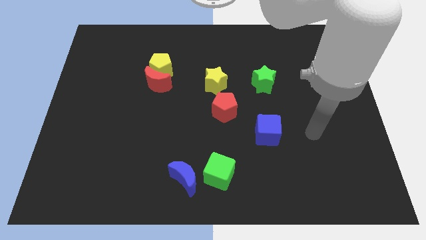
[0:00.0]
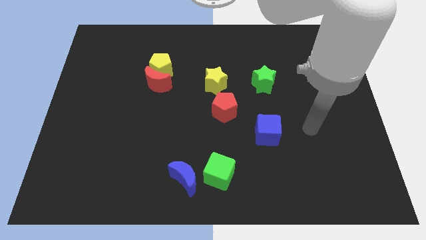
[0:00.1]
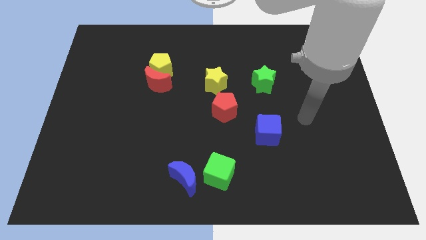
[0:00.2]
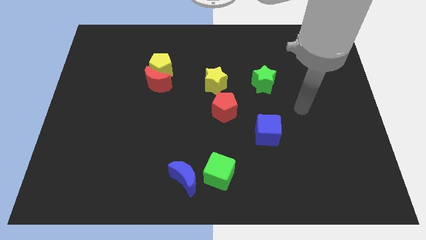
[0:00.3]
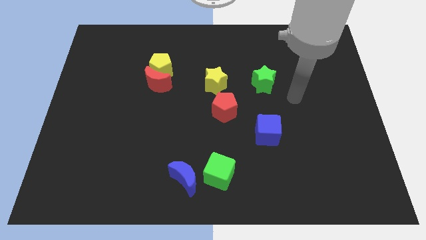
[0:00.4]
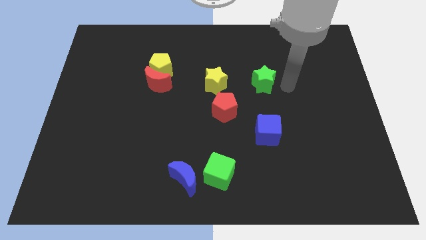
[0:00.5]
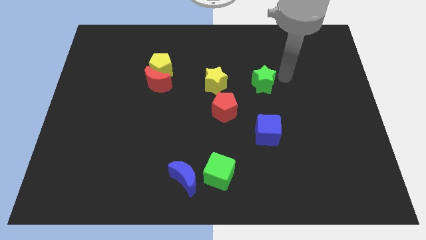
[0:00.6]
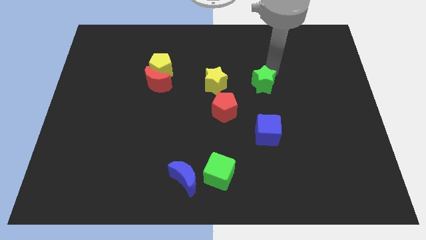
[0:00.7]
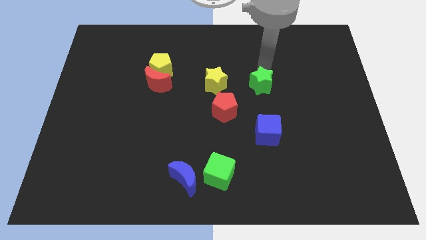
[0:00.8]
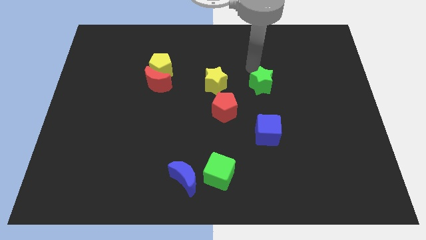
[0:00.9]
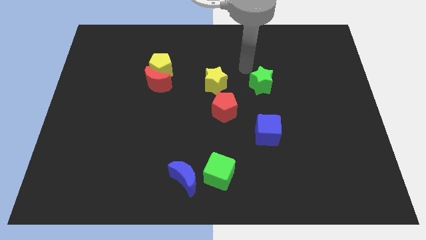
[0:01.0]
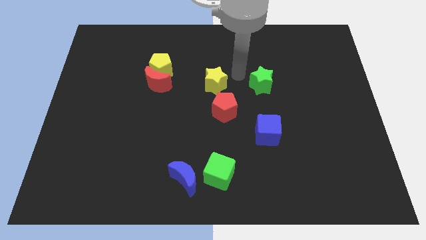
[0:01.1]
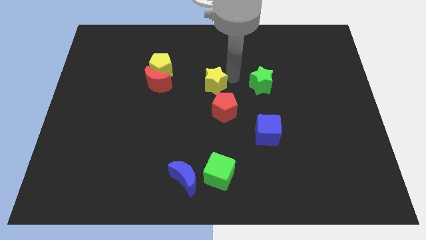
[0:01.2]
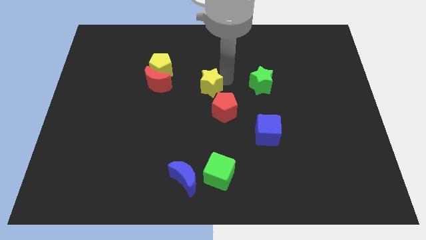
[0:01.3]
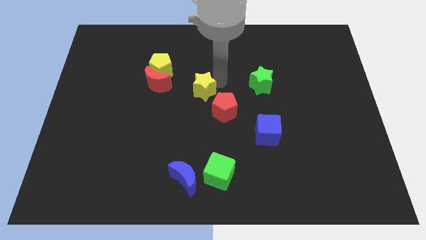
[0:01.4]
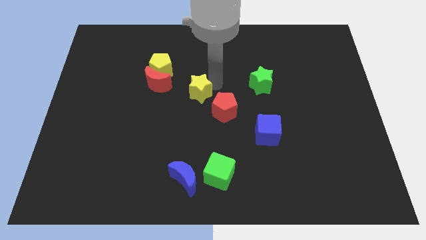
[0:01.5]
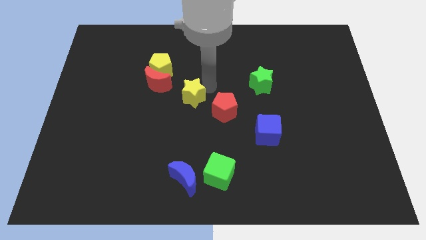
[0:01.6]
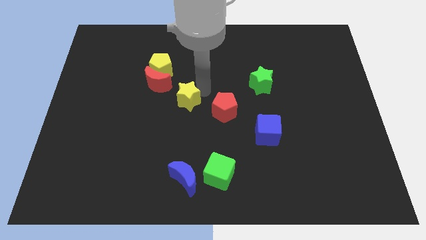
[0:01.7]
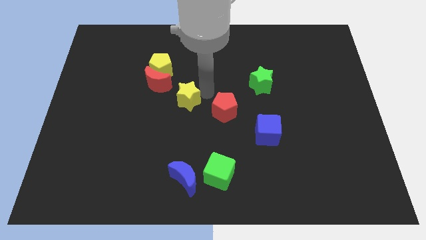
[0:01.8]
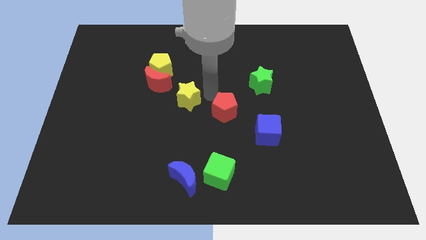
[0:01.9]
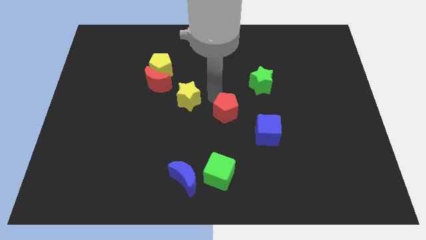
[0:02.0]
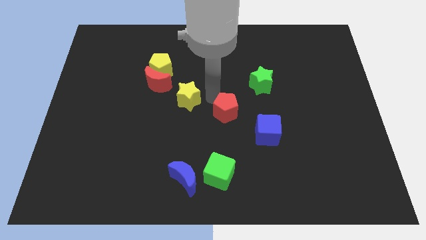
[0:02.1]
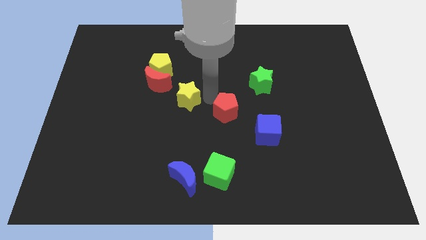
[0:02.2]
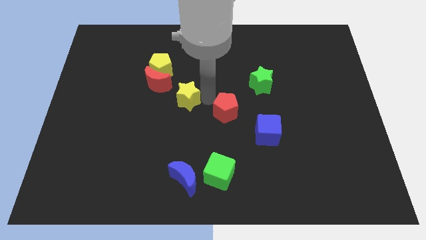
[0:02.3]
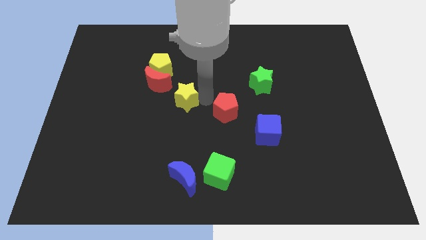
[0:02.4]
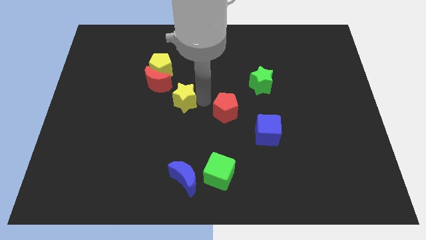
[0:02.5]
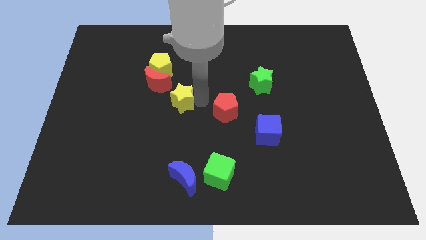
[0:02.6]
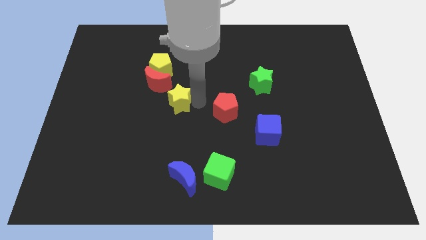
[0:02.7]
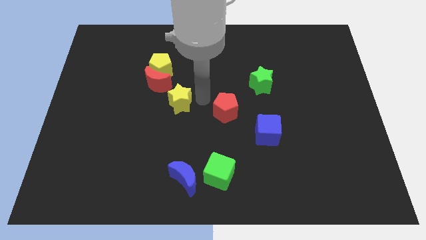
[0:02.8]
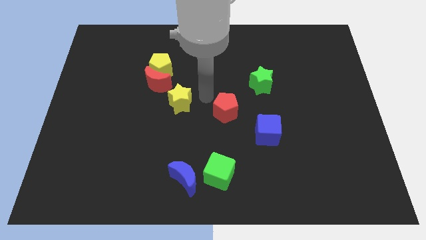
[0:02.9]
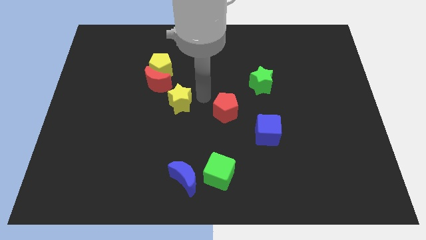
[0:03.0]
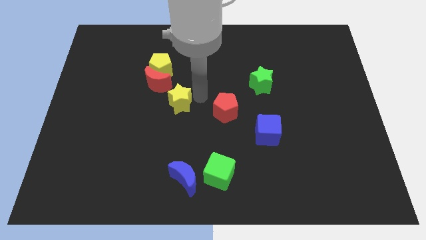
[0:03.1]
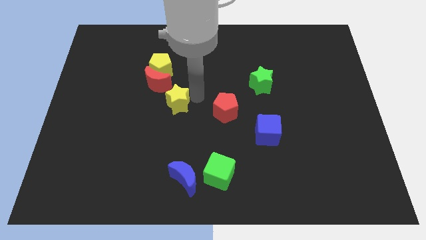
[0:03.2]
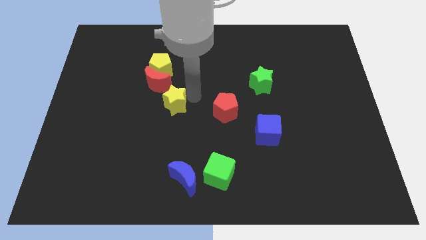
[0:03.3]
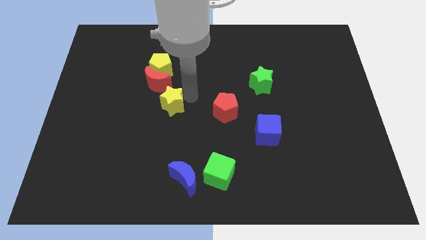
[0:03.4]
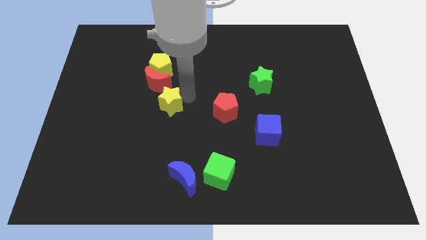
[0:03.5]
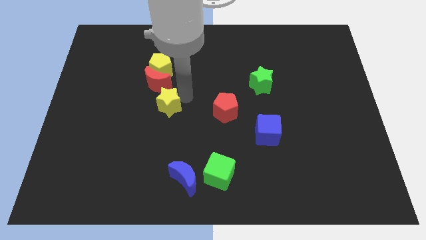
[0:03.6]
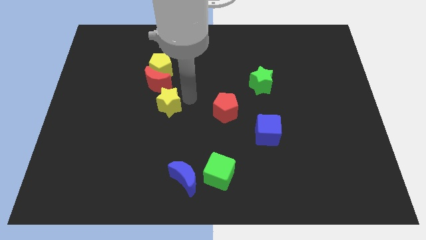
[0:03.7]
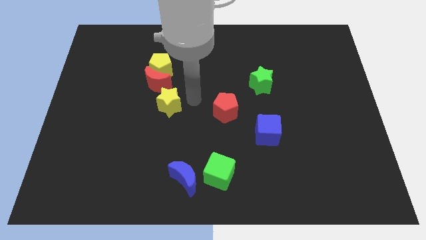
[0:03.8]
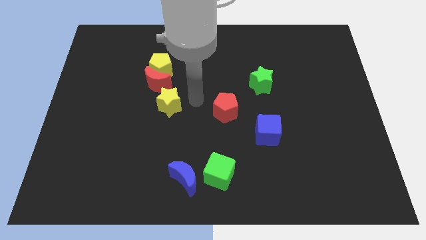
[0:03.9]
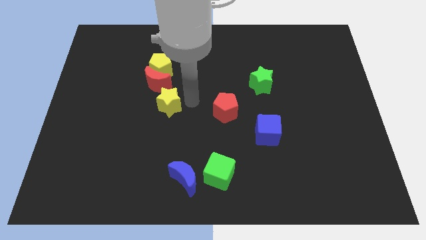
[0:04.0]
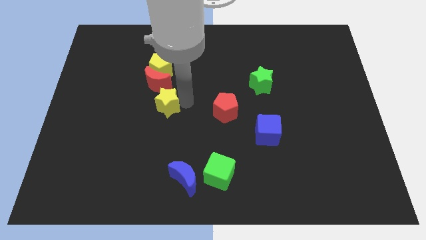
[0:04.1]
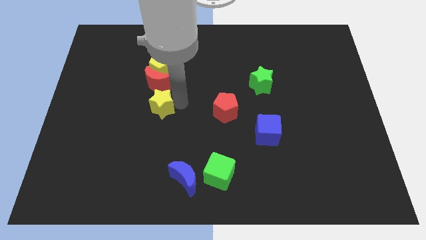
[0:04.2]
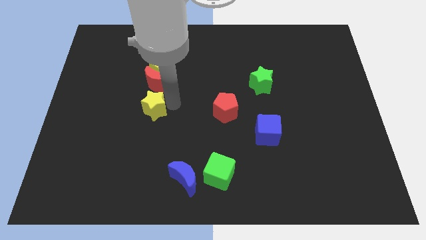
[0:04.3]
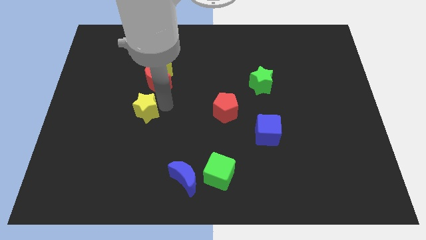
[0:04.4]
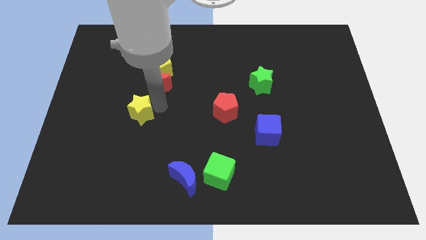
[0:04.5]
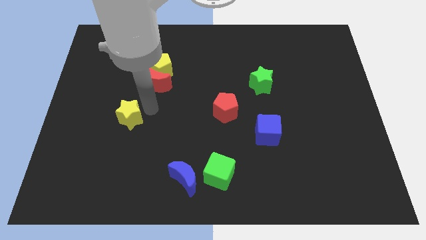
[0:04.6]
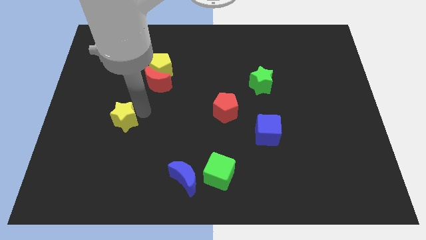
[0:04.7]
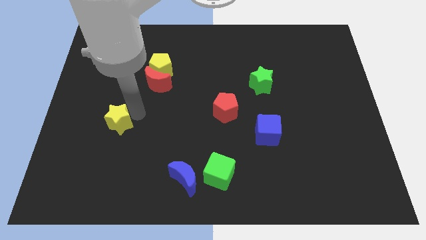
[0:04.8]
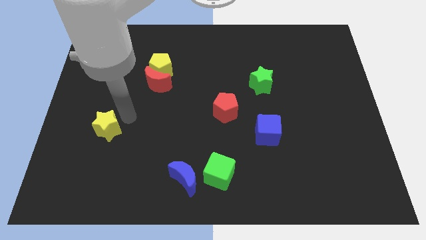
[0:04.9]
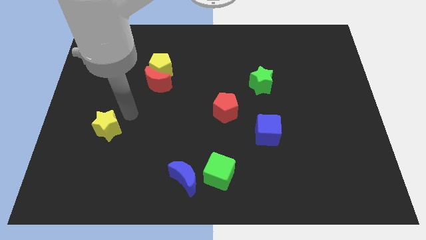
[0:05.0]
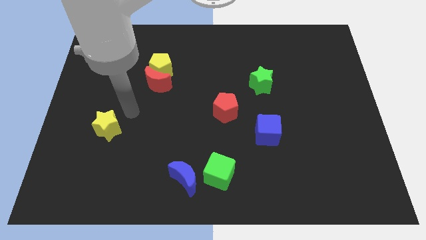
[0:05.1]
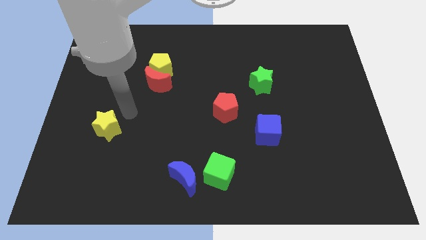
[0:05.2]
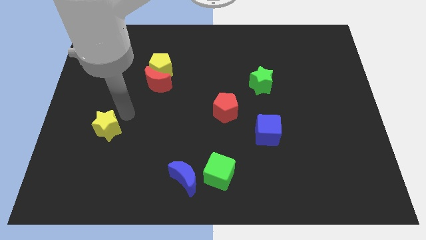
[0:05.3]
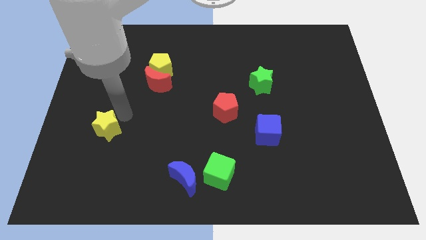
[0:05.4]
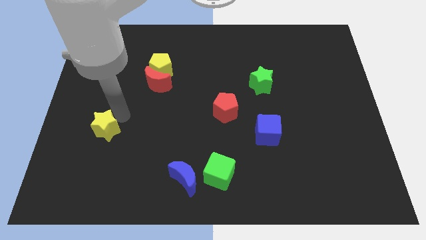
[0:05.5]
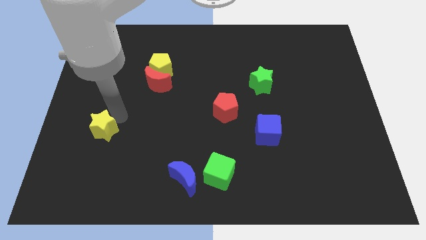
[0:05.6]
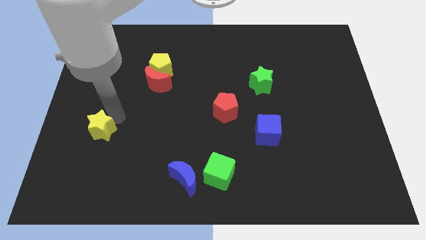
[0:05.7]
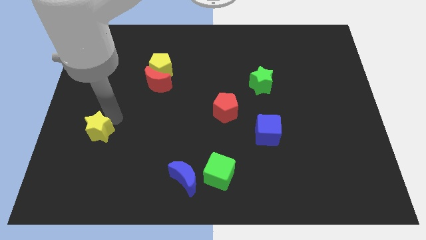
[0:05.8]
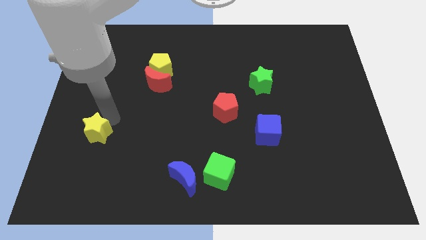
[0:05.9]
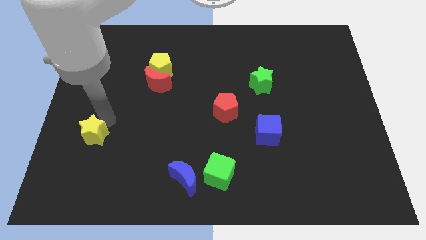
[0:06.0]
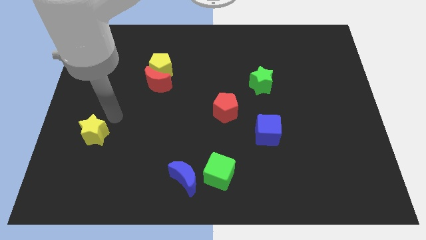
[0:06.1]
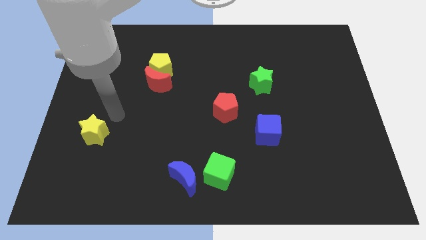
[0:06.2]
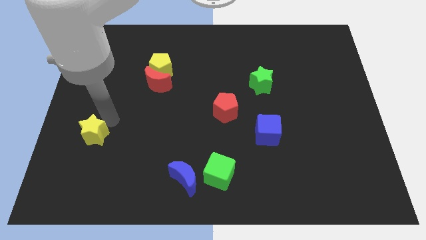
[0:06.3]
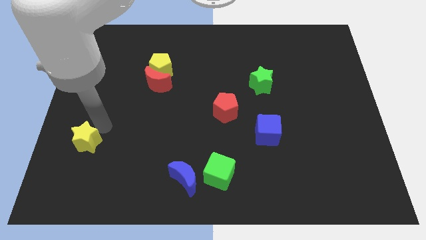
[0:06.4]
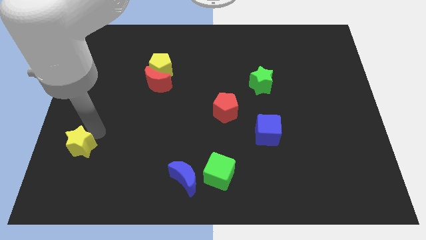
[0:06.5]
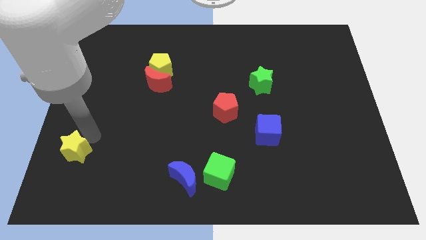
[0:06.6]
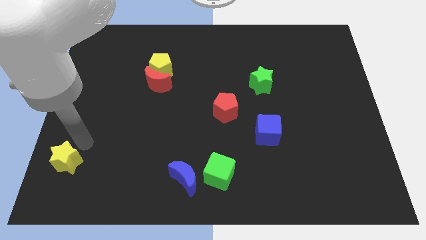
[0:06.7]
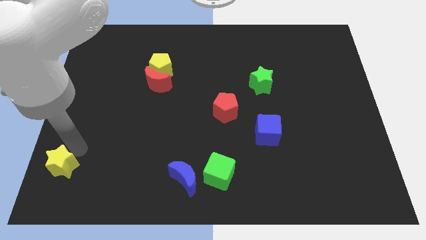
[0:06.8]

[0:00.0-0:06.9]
move the yellow star to the lower left corner
